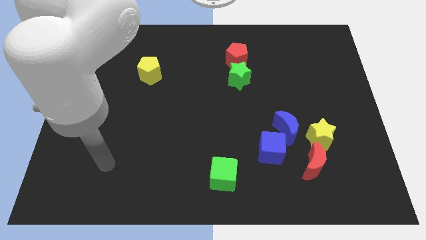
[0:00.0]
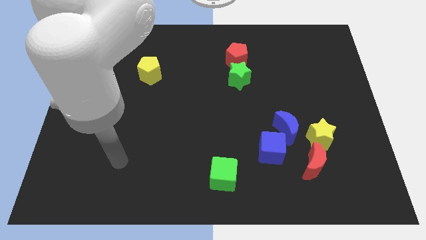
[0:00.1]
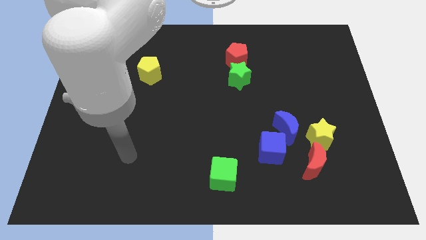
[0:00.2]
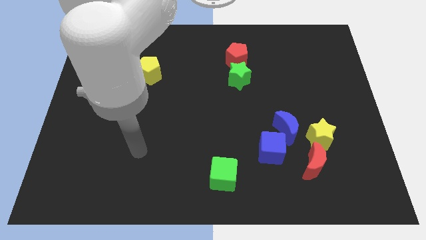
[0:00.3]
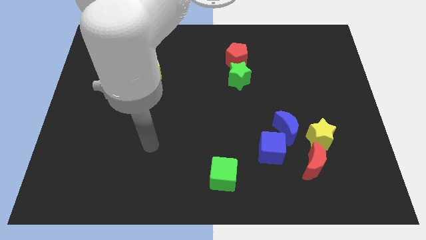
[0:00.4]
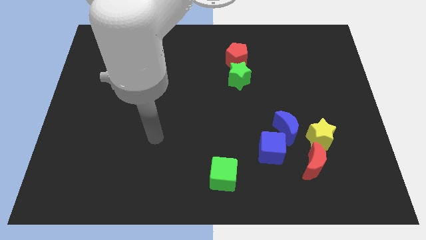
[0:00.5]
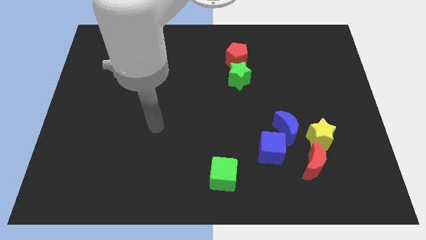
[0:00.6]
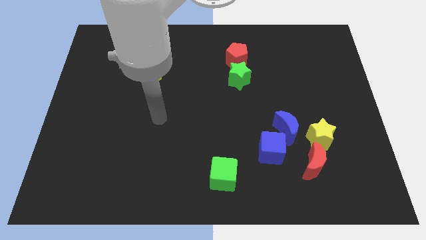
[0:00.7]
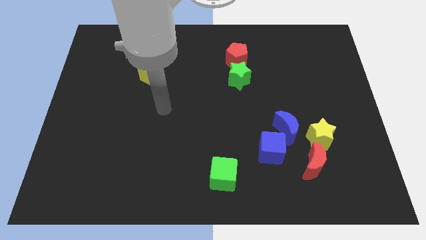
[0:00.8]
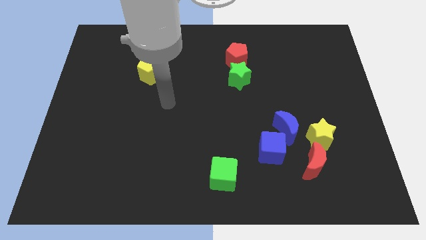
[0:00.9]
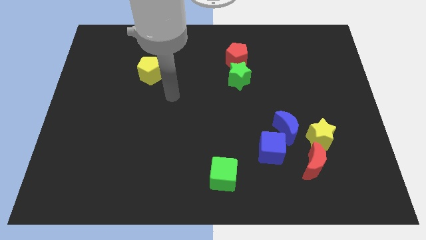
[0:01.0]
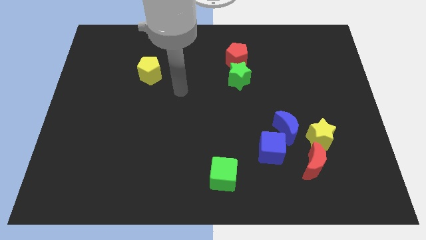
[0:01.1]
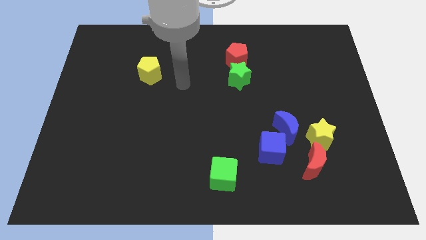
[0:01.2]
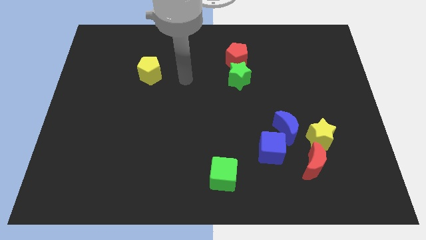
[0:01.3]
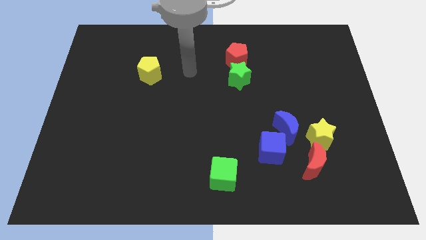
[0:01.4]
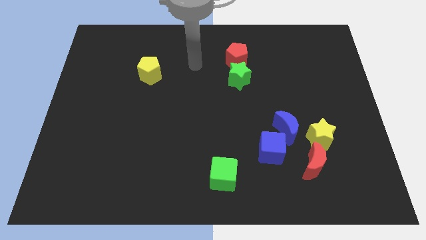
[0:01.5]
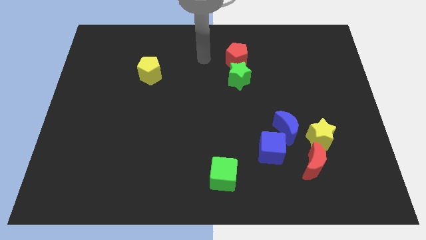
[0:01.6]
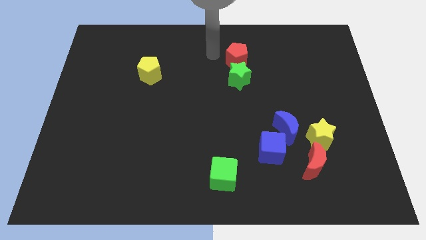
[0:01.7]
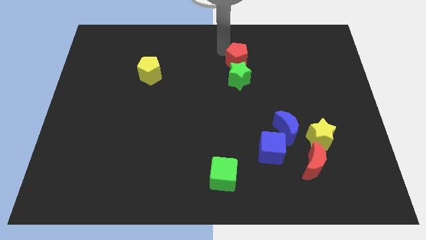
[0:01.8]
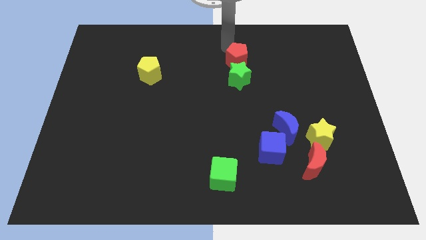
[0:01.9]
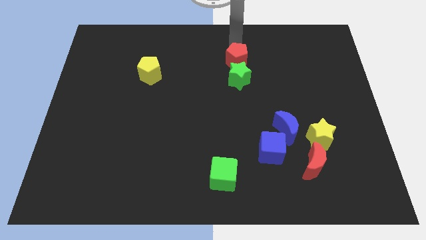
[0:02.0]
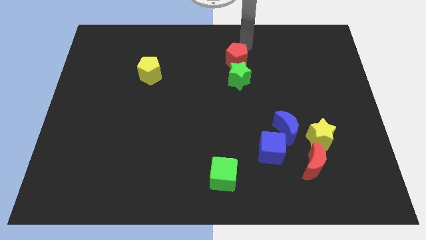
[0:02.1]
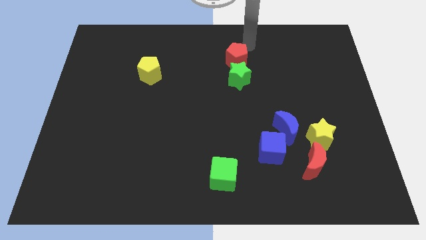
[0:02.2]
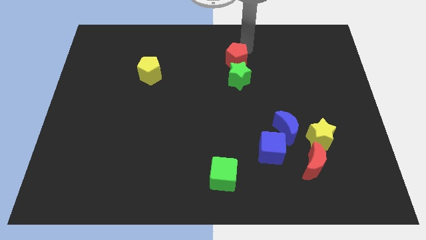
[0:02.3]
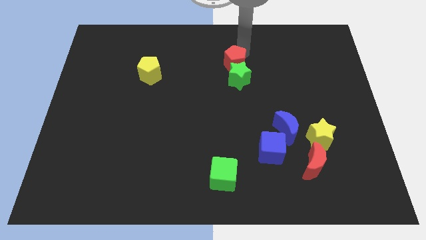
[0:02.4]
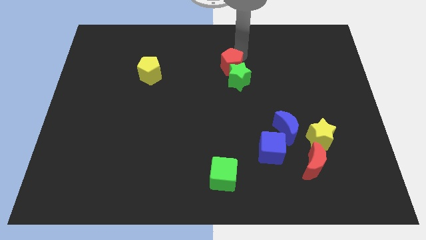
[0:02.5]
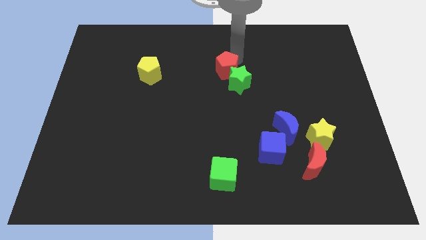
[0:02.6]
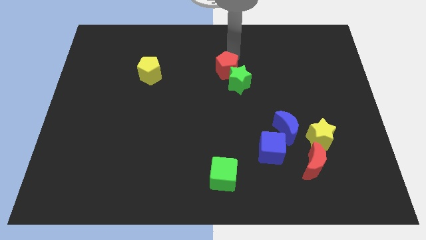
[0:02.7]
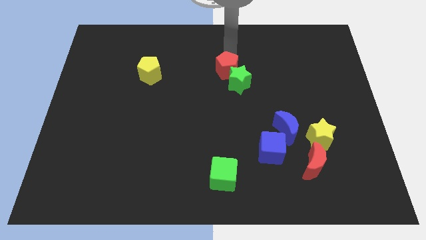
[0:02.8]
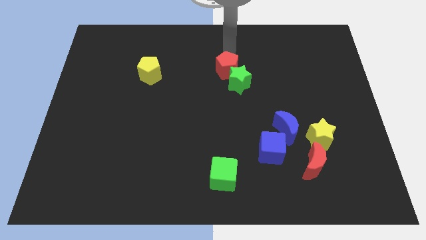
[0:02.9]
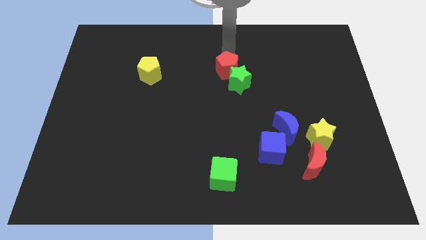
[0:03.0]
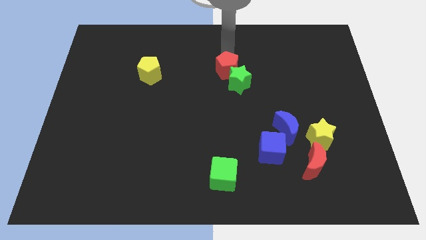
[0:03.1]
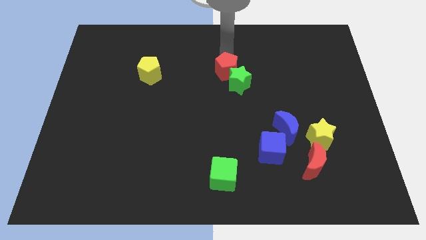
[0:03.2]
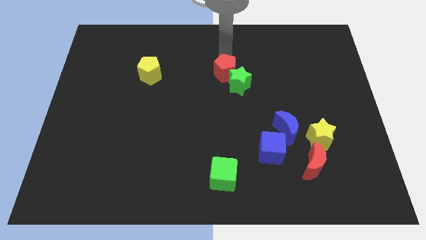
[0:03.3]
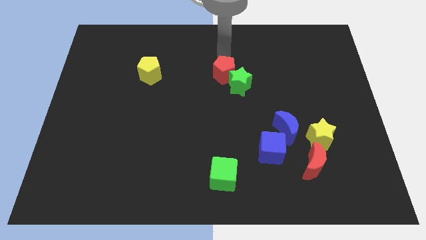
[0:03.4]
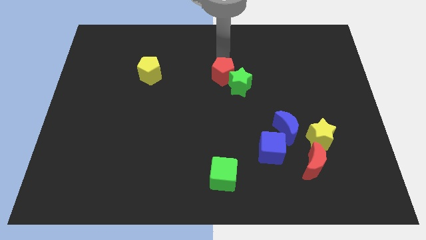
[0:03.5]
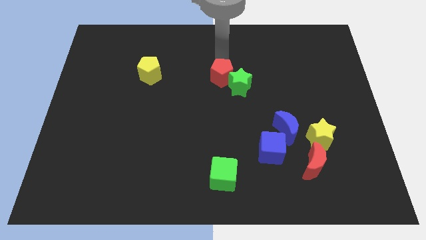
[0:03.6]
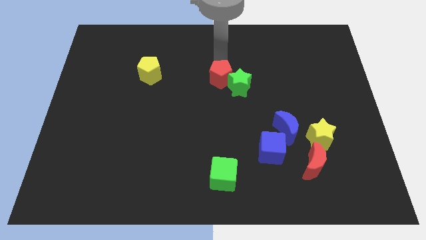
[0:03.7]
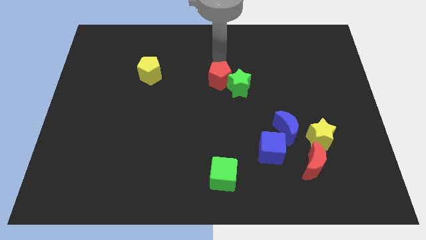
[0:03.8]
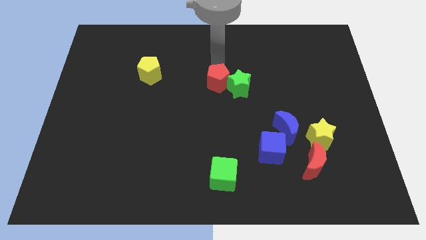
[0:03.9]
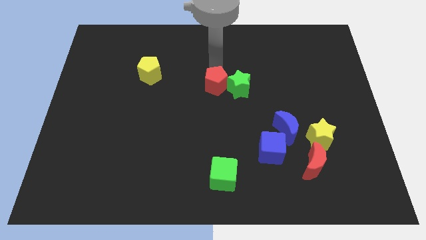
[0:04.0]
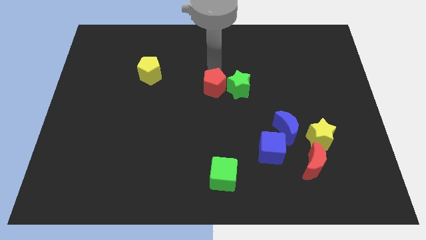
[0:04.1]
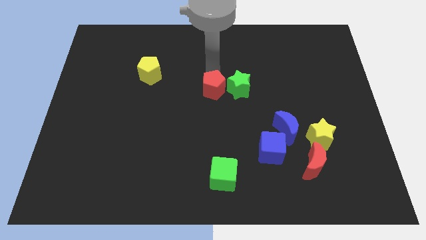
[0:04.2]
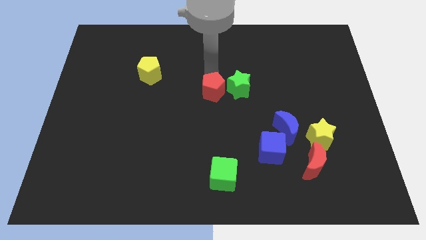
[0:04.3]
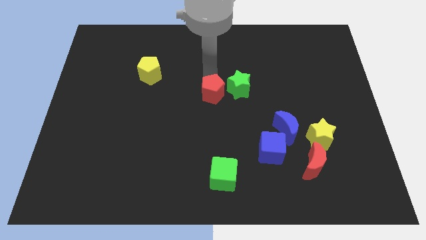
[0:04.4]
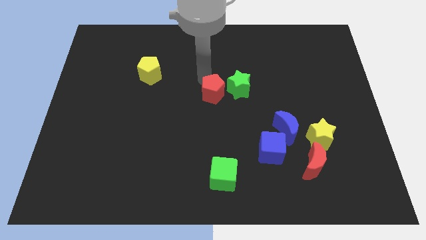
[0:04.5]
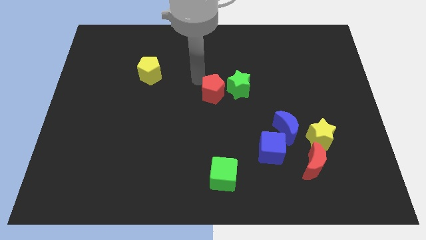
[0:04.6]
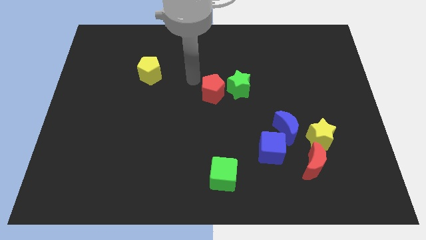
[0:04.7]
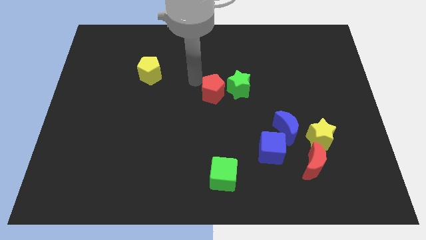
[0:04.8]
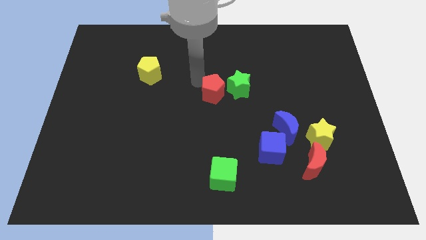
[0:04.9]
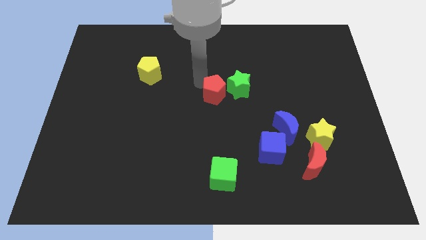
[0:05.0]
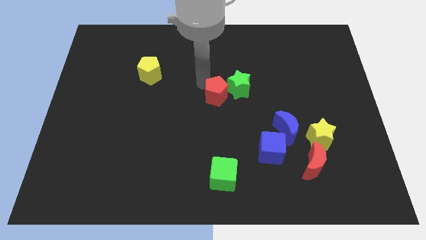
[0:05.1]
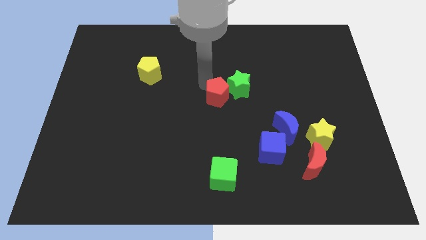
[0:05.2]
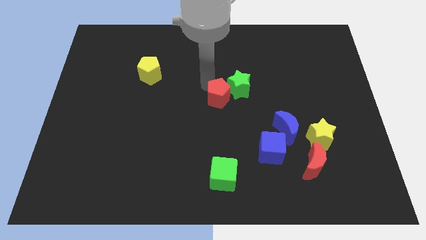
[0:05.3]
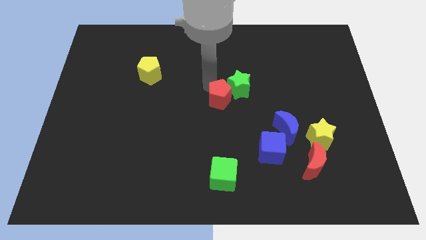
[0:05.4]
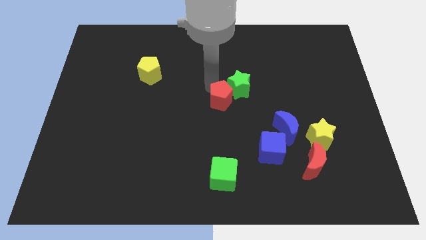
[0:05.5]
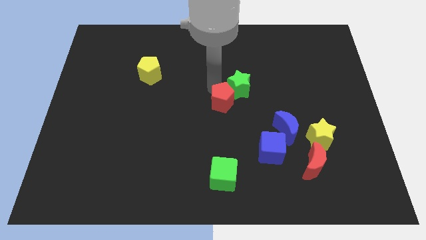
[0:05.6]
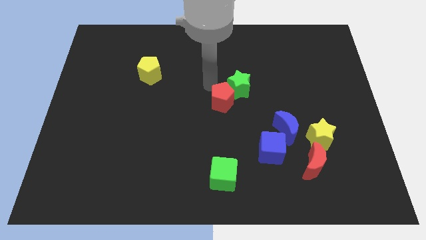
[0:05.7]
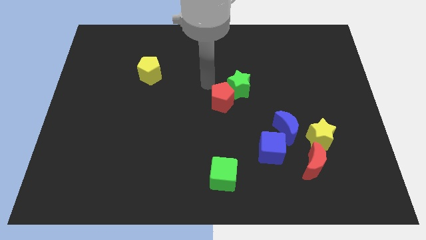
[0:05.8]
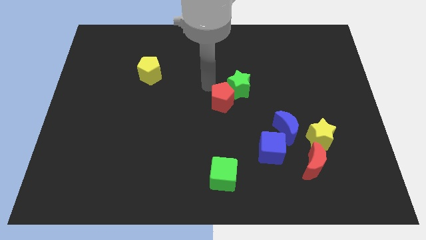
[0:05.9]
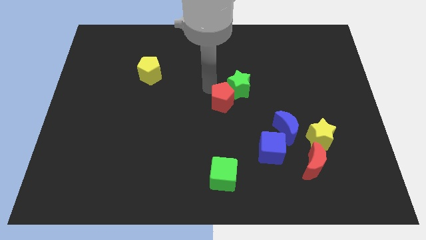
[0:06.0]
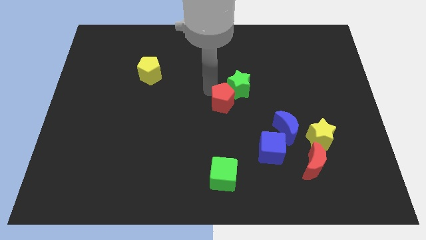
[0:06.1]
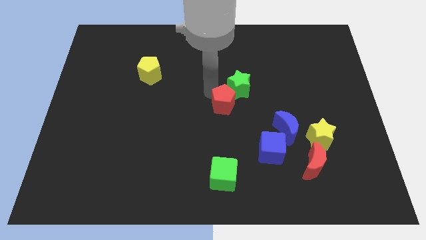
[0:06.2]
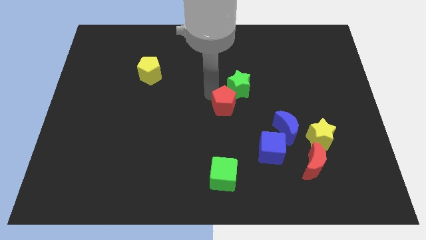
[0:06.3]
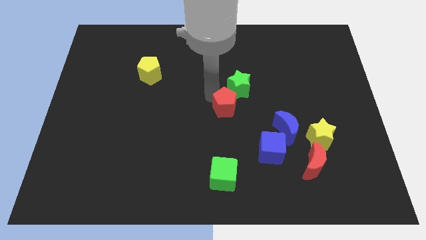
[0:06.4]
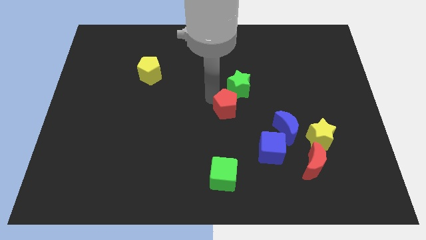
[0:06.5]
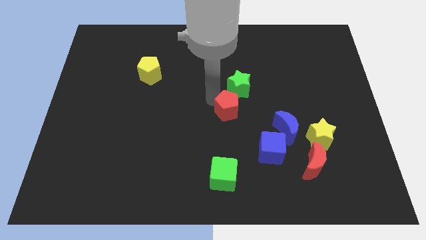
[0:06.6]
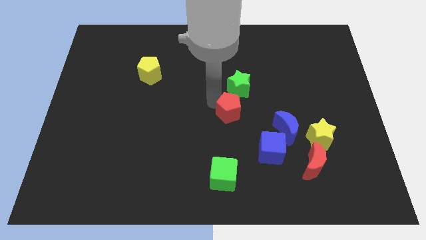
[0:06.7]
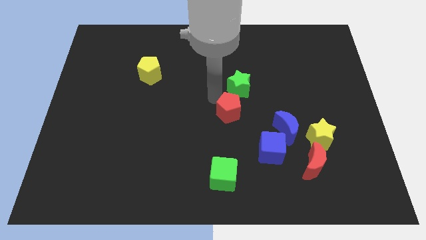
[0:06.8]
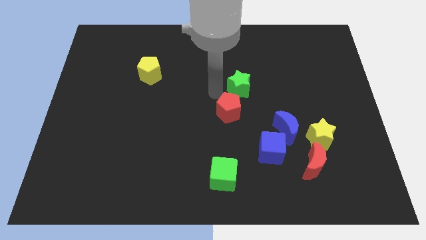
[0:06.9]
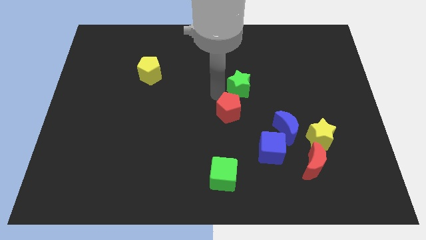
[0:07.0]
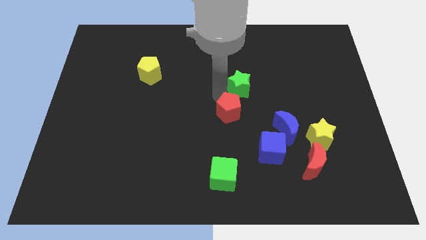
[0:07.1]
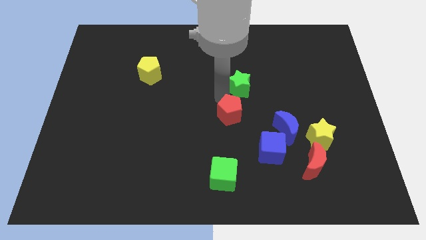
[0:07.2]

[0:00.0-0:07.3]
push the red pentagon left of the blue moon
